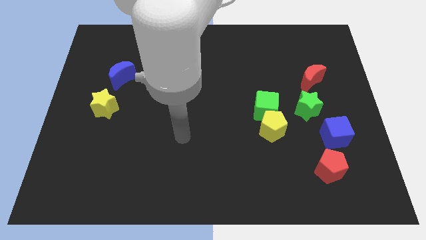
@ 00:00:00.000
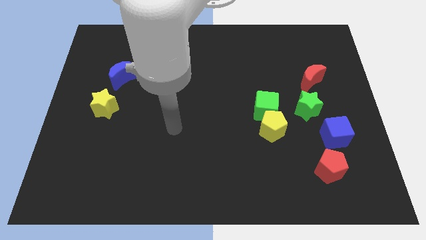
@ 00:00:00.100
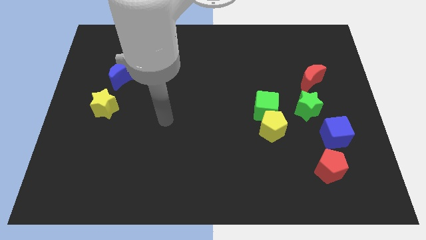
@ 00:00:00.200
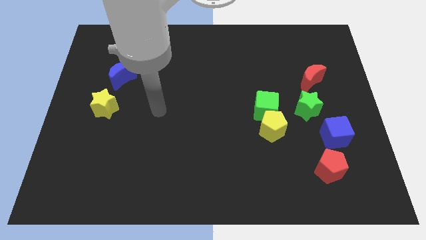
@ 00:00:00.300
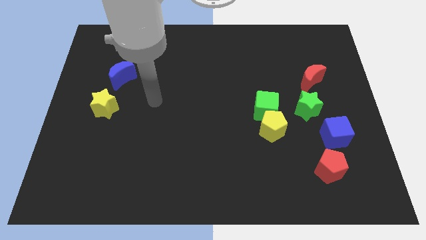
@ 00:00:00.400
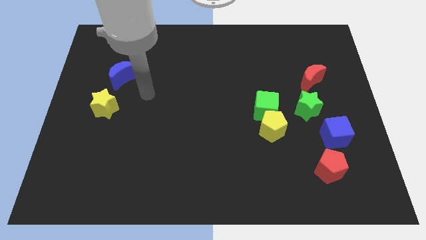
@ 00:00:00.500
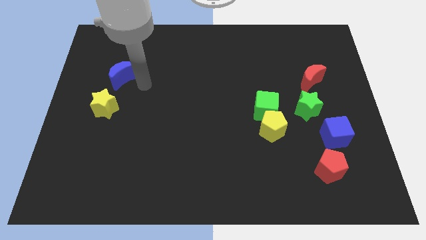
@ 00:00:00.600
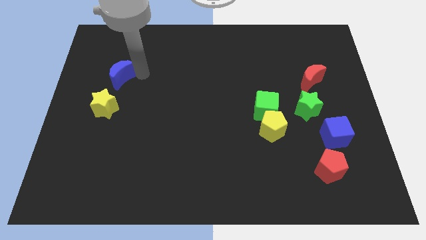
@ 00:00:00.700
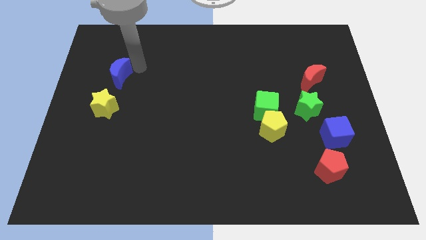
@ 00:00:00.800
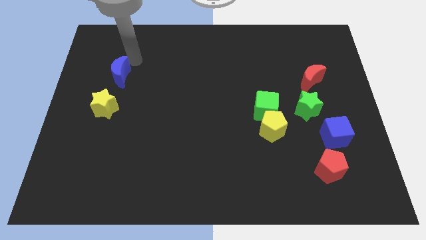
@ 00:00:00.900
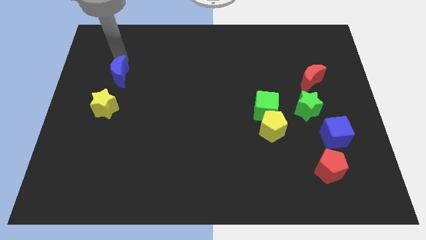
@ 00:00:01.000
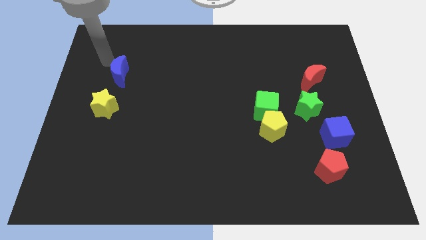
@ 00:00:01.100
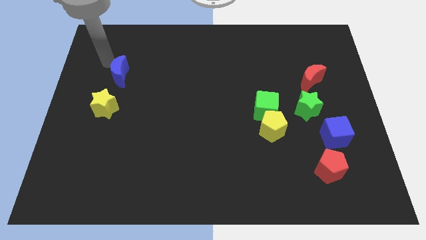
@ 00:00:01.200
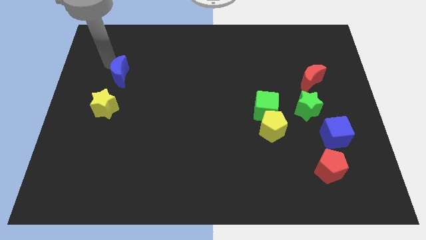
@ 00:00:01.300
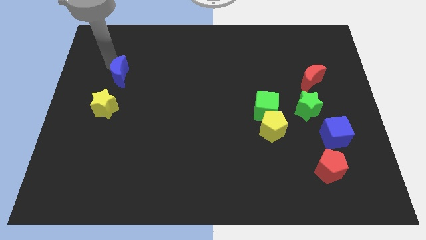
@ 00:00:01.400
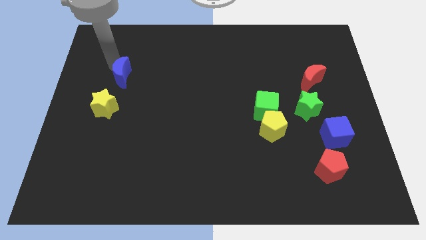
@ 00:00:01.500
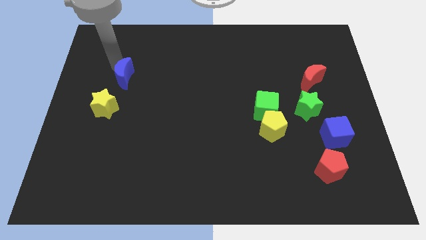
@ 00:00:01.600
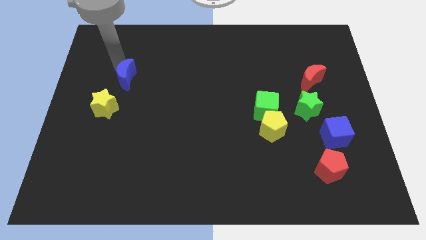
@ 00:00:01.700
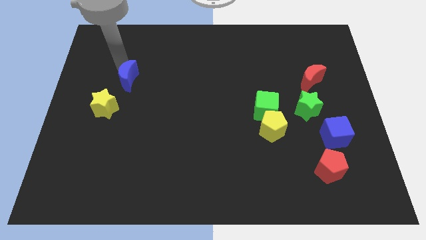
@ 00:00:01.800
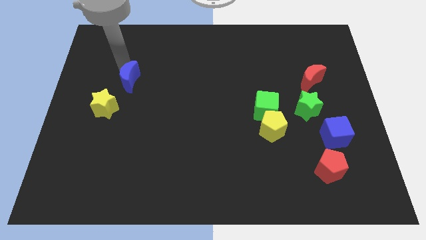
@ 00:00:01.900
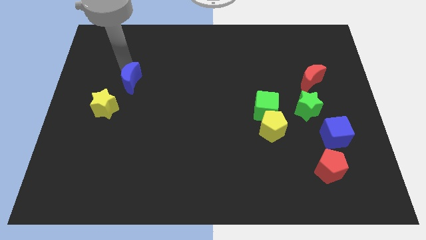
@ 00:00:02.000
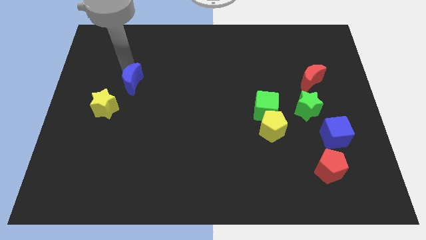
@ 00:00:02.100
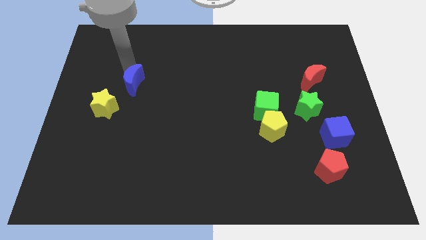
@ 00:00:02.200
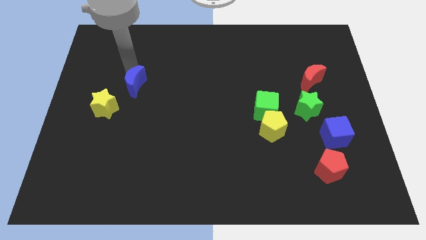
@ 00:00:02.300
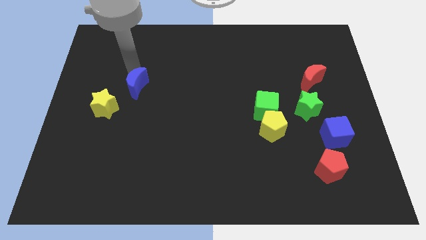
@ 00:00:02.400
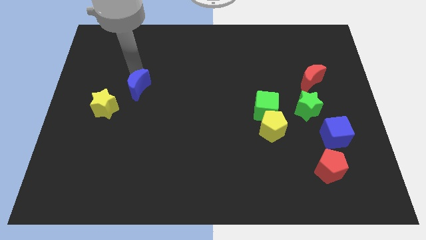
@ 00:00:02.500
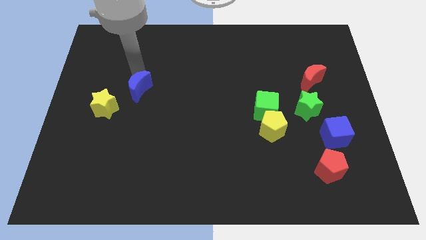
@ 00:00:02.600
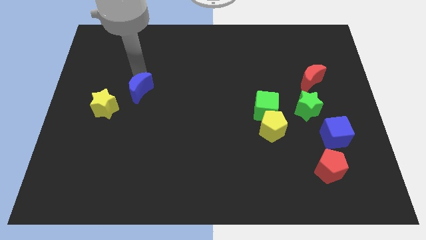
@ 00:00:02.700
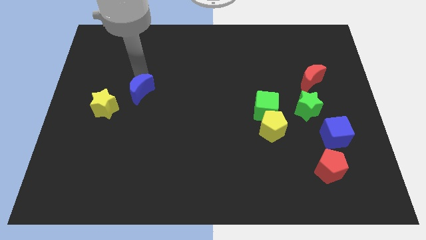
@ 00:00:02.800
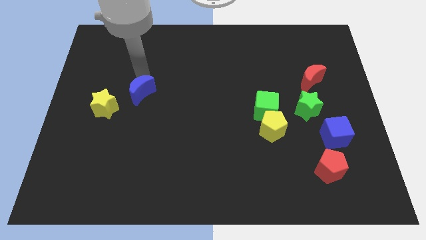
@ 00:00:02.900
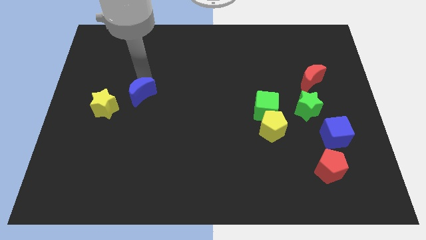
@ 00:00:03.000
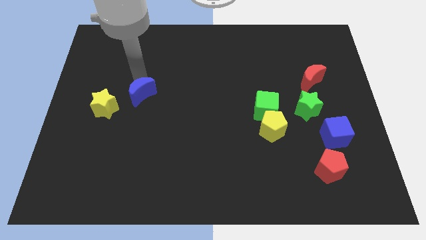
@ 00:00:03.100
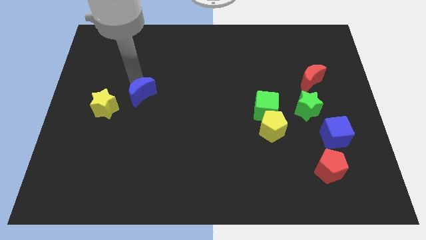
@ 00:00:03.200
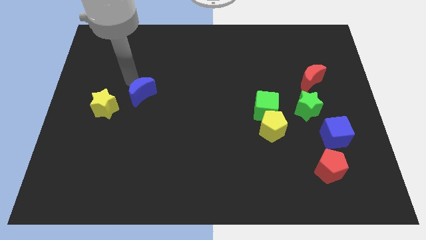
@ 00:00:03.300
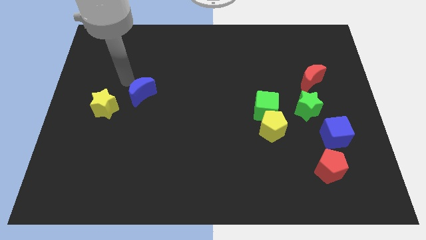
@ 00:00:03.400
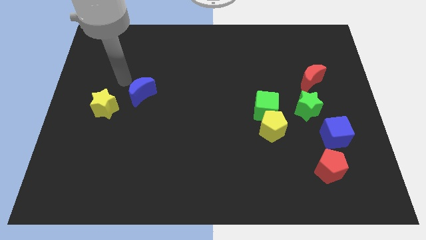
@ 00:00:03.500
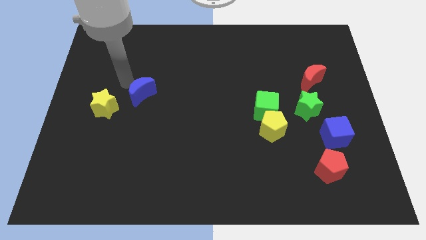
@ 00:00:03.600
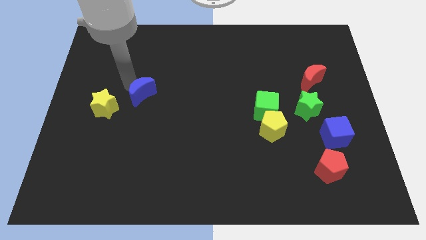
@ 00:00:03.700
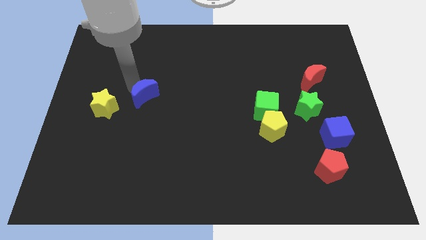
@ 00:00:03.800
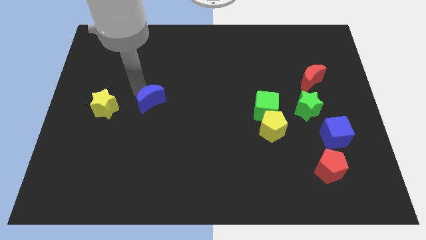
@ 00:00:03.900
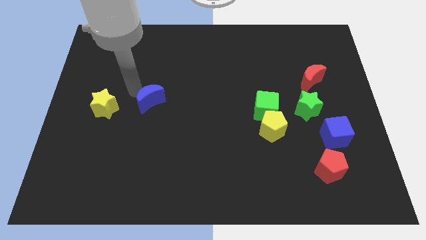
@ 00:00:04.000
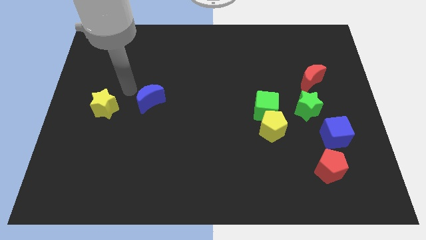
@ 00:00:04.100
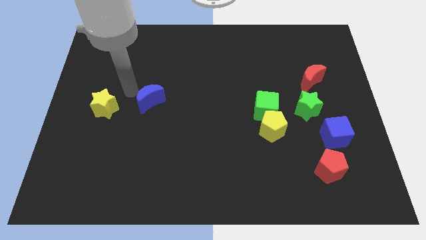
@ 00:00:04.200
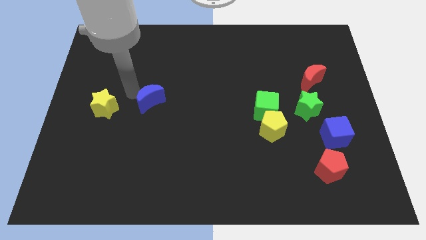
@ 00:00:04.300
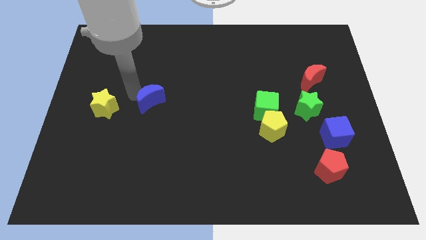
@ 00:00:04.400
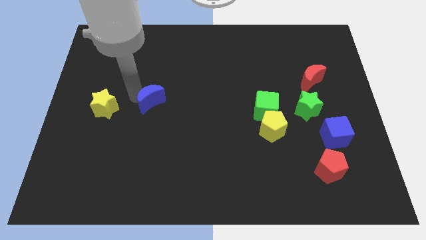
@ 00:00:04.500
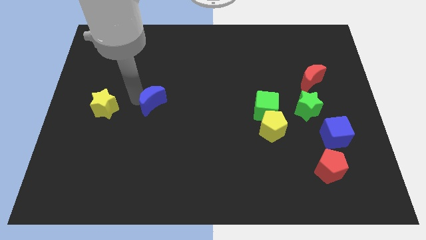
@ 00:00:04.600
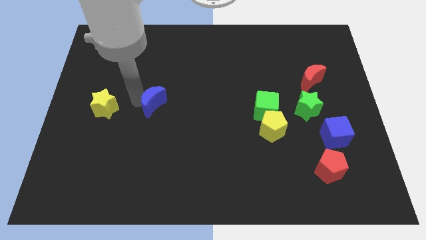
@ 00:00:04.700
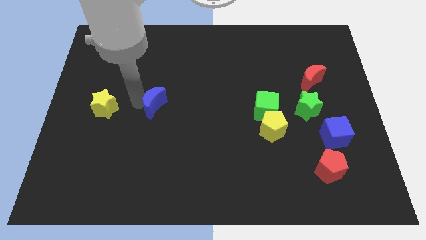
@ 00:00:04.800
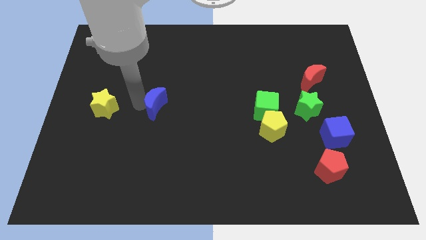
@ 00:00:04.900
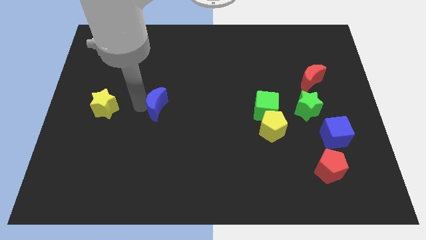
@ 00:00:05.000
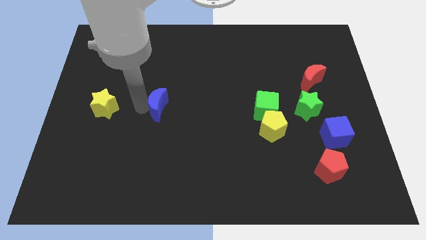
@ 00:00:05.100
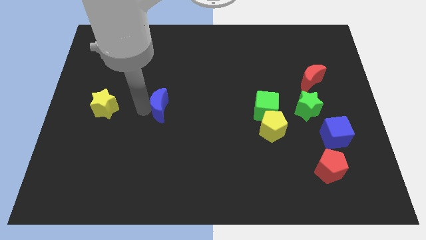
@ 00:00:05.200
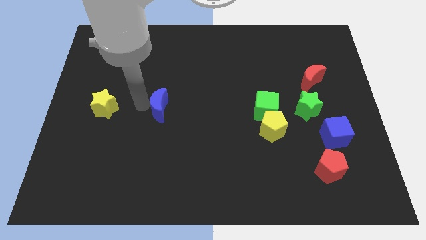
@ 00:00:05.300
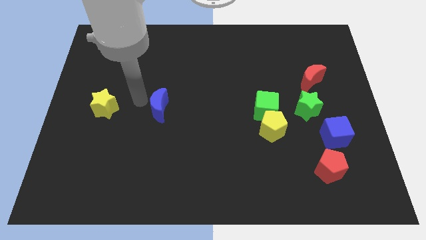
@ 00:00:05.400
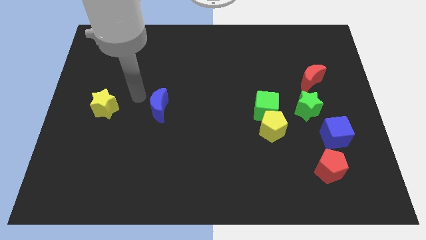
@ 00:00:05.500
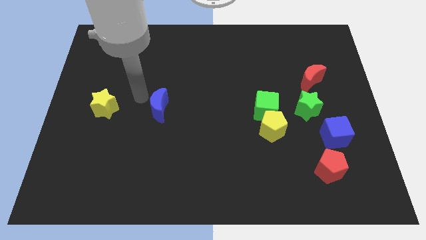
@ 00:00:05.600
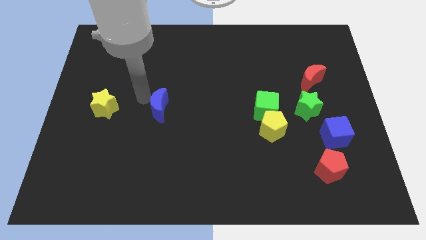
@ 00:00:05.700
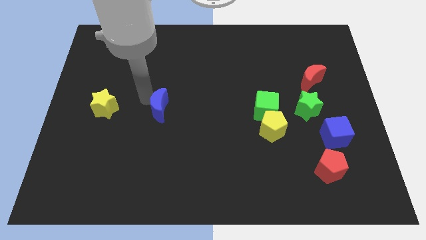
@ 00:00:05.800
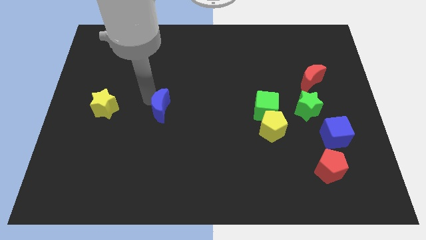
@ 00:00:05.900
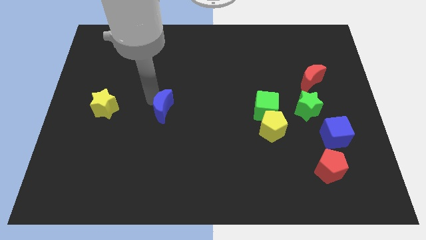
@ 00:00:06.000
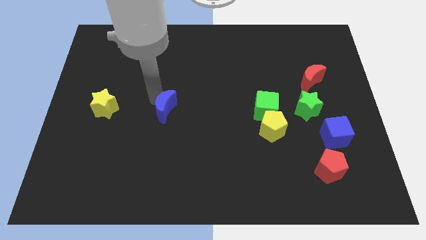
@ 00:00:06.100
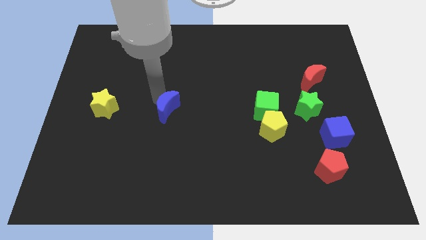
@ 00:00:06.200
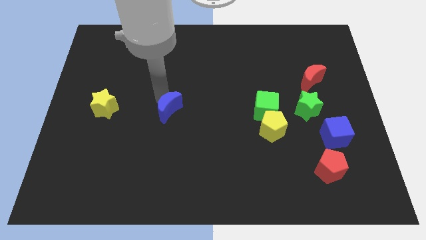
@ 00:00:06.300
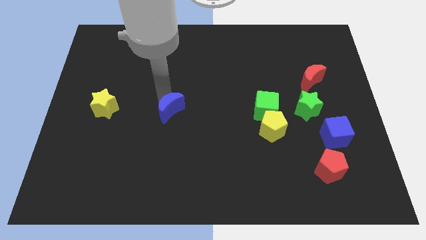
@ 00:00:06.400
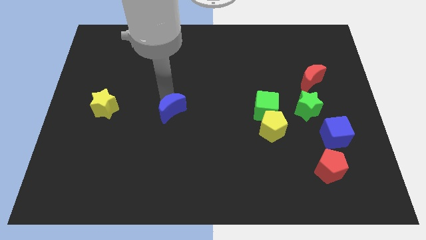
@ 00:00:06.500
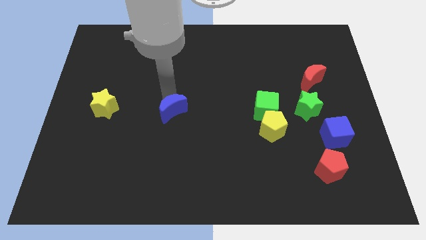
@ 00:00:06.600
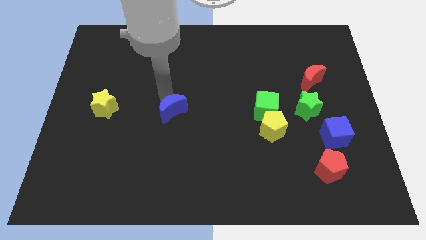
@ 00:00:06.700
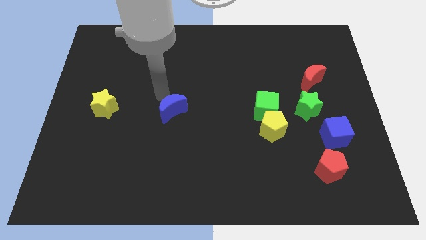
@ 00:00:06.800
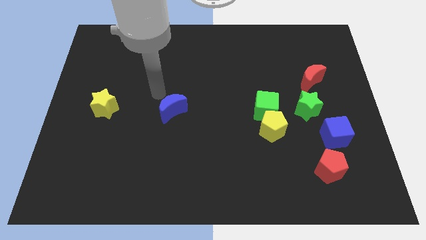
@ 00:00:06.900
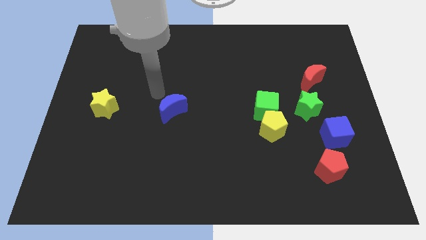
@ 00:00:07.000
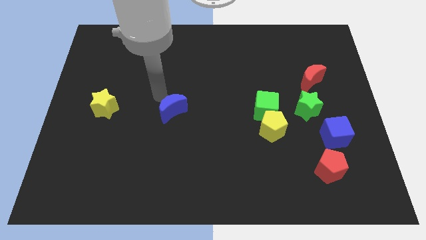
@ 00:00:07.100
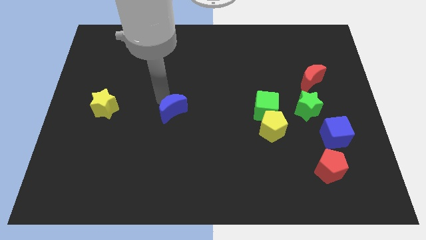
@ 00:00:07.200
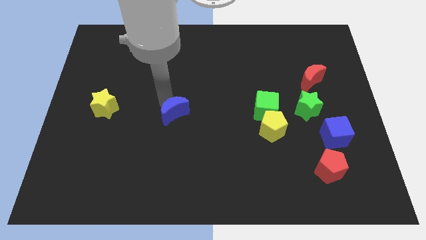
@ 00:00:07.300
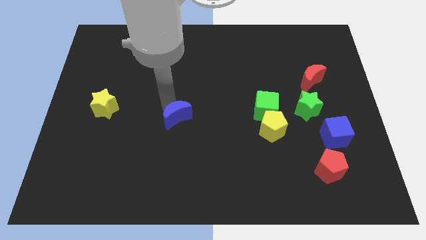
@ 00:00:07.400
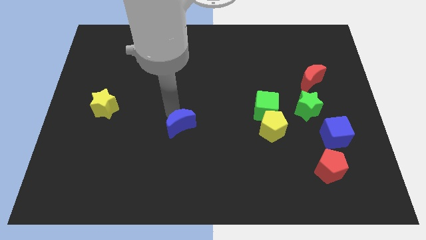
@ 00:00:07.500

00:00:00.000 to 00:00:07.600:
move the blue moon downwards and to the right
